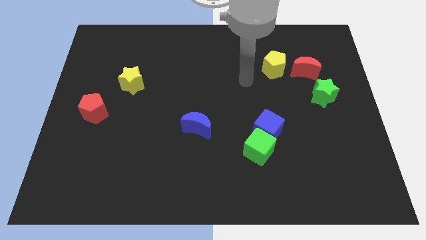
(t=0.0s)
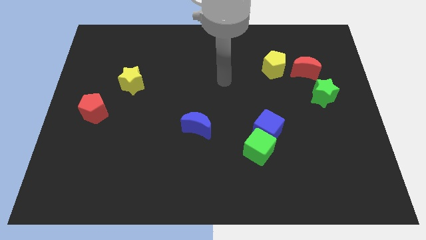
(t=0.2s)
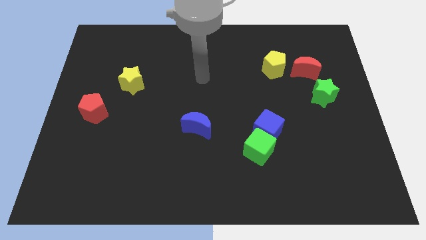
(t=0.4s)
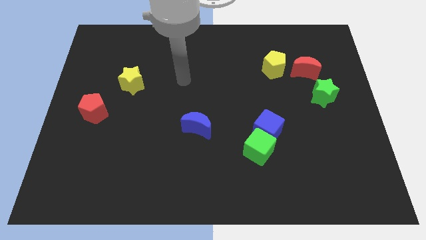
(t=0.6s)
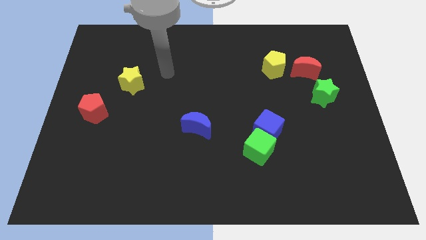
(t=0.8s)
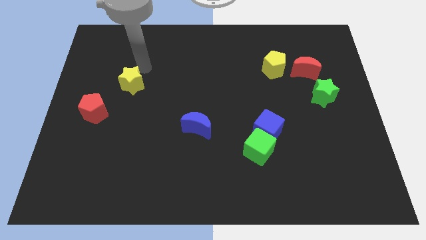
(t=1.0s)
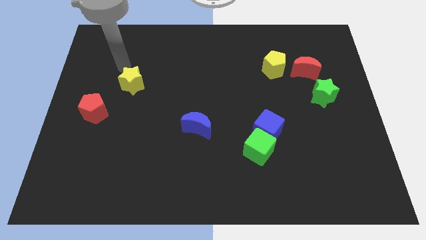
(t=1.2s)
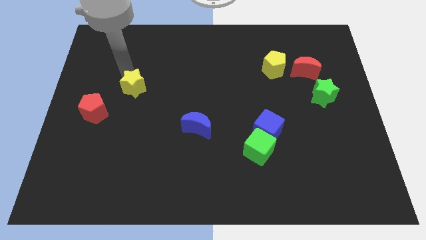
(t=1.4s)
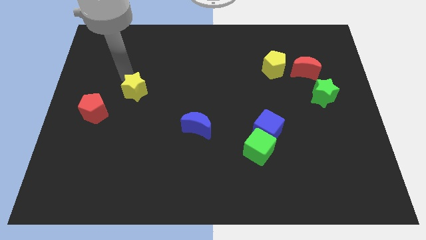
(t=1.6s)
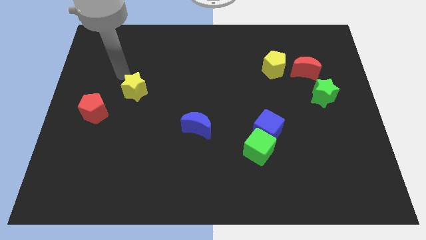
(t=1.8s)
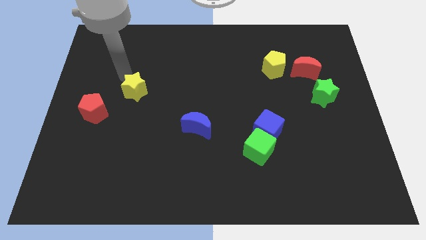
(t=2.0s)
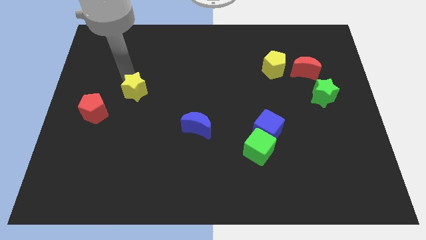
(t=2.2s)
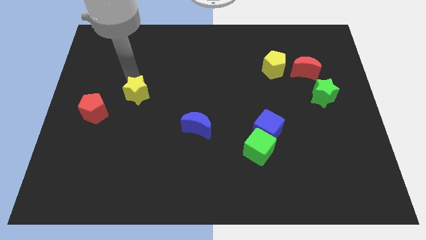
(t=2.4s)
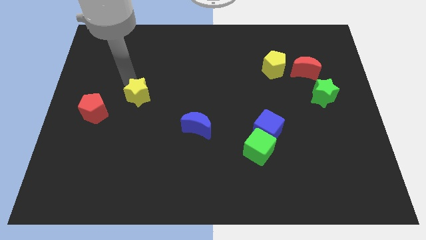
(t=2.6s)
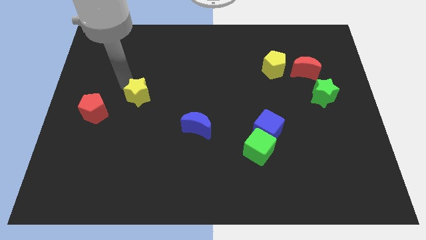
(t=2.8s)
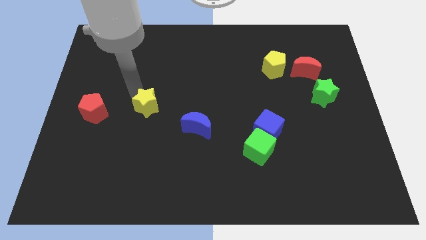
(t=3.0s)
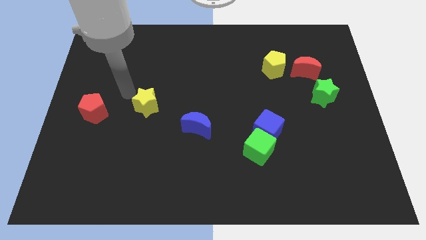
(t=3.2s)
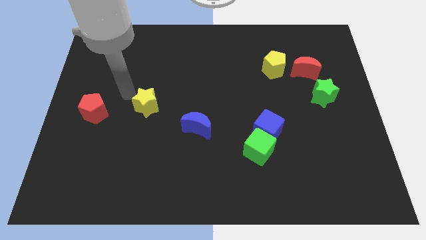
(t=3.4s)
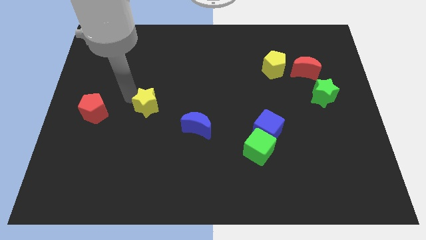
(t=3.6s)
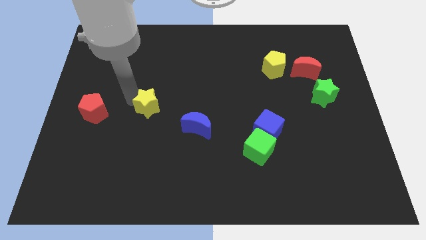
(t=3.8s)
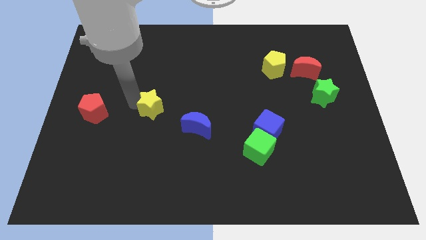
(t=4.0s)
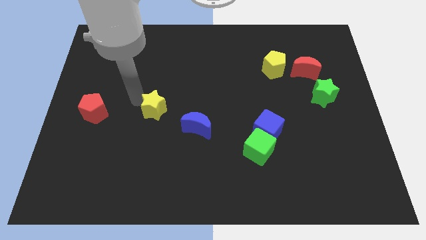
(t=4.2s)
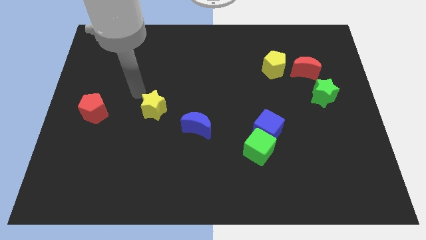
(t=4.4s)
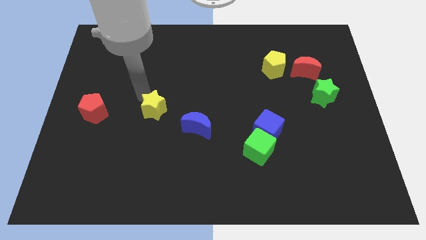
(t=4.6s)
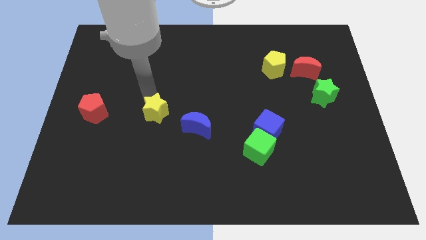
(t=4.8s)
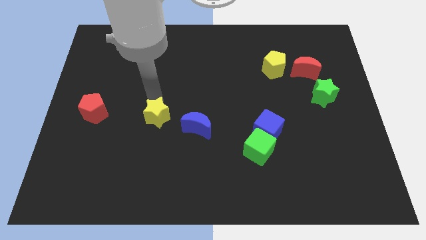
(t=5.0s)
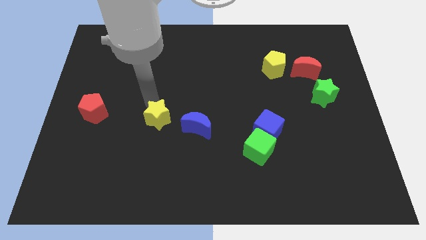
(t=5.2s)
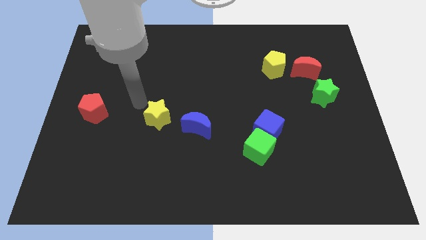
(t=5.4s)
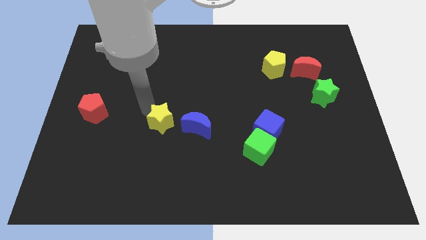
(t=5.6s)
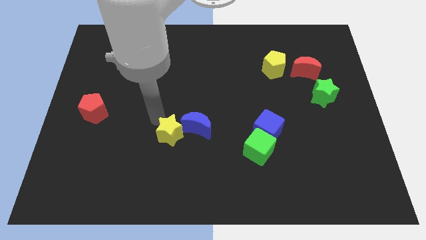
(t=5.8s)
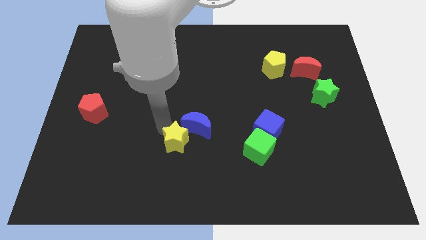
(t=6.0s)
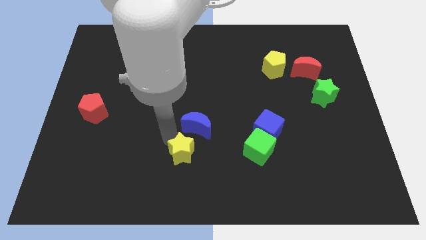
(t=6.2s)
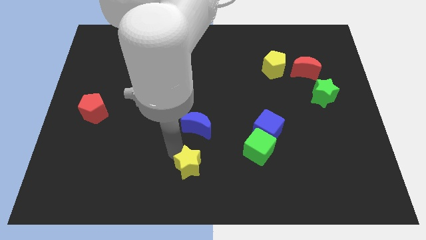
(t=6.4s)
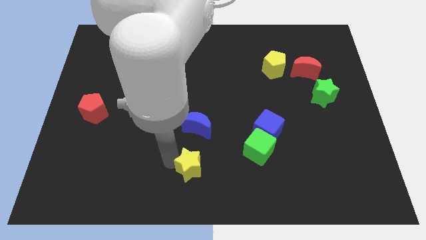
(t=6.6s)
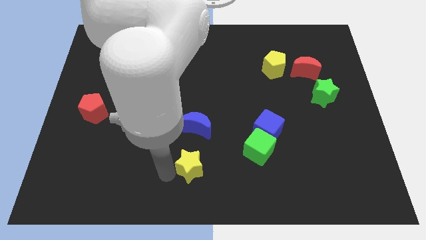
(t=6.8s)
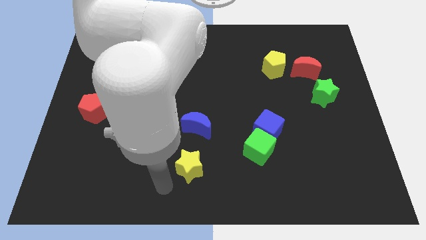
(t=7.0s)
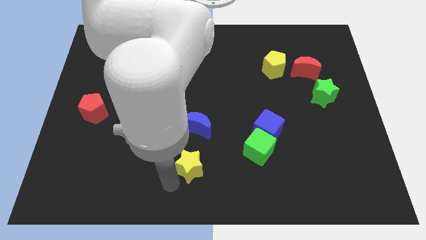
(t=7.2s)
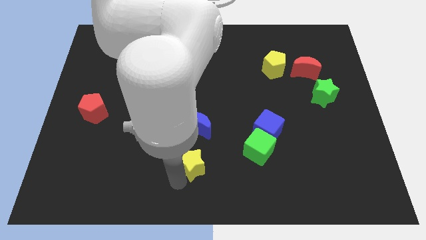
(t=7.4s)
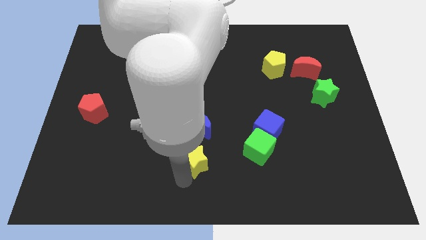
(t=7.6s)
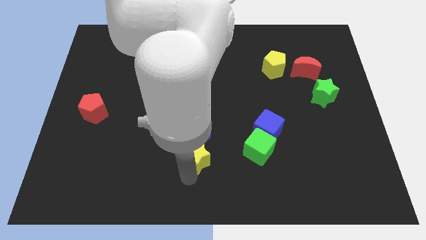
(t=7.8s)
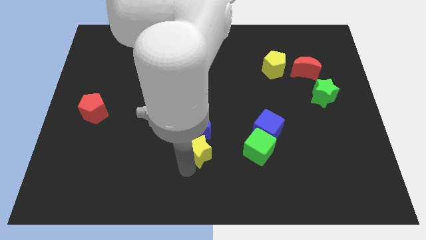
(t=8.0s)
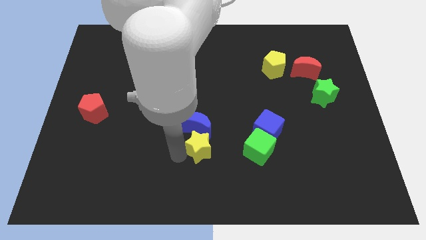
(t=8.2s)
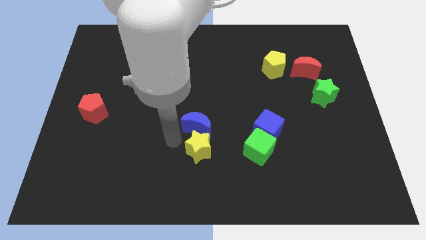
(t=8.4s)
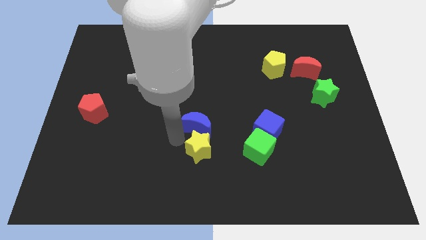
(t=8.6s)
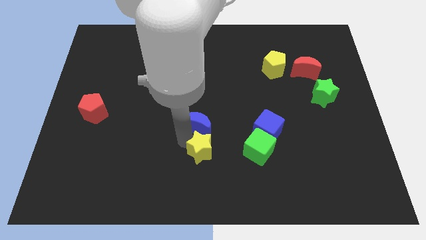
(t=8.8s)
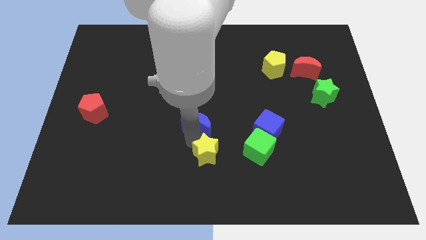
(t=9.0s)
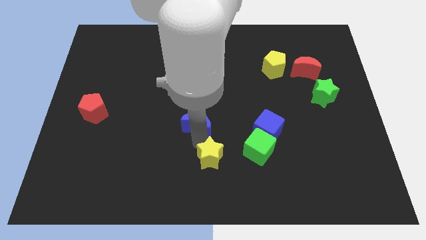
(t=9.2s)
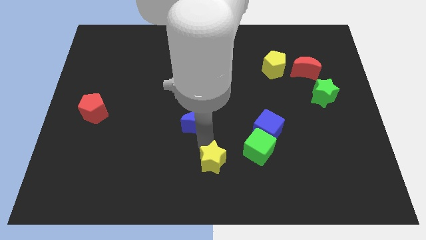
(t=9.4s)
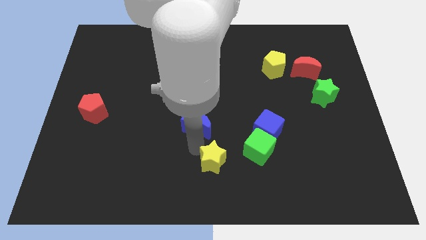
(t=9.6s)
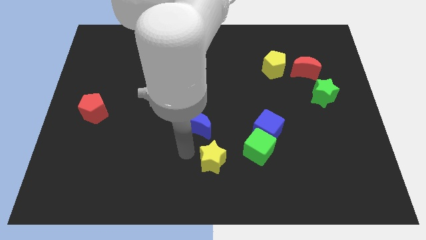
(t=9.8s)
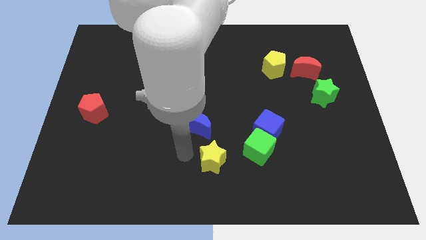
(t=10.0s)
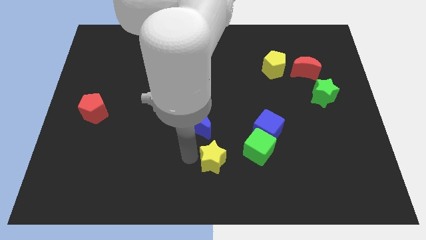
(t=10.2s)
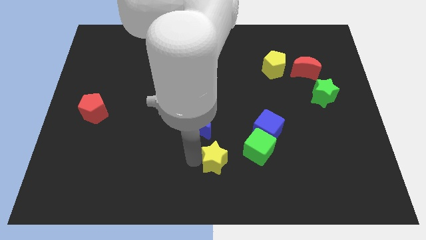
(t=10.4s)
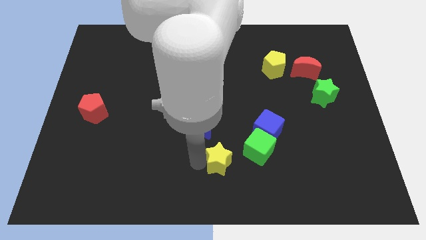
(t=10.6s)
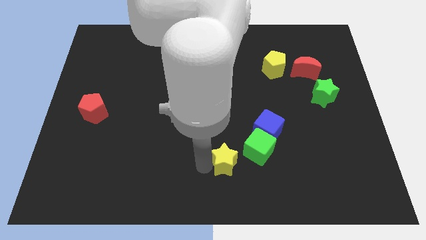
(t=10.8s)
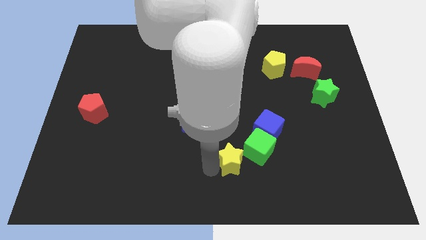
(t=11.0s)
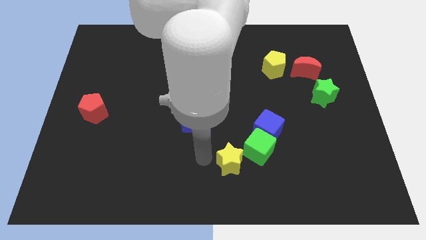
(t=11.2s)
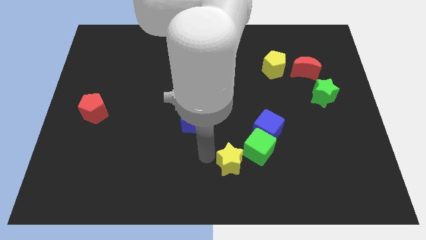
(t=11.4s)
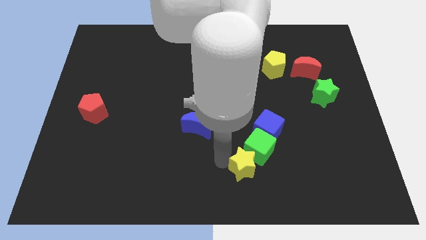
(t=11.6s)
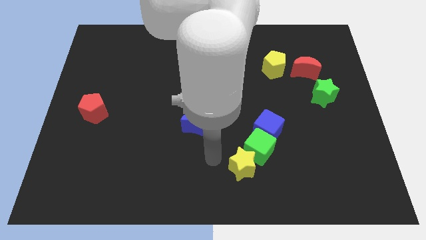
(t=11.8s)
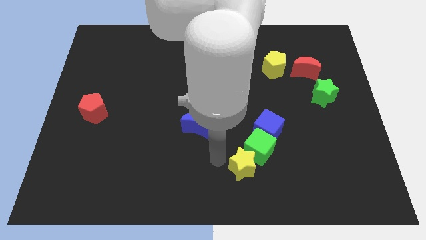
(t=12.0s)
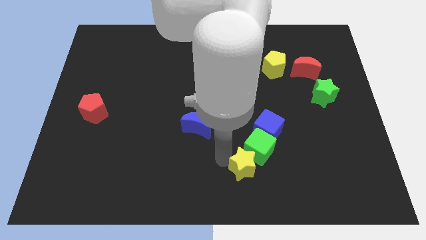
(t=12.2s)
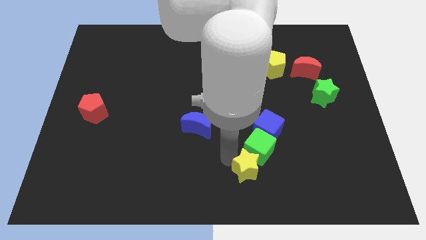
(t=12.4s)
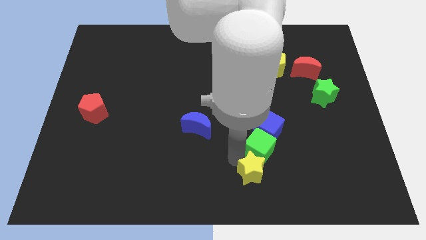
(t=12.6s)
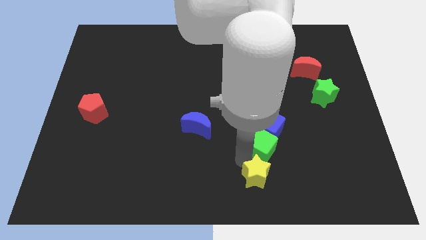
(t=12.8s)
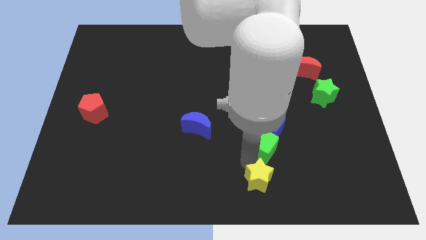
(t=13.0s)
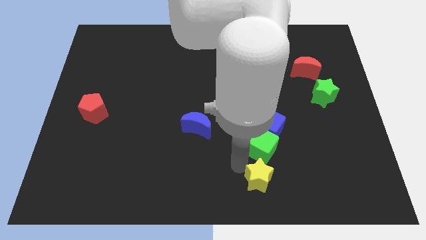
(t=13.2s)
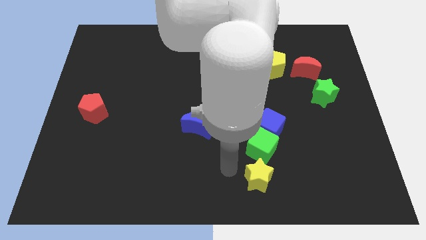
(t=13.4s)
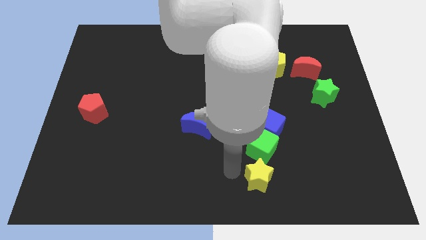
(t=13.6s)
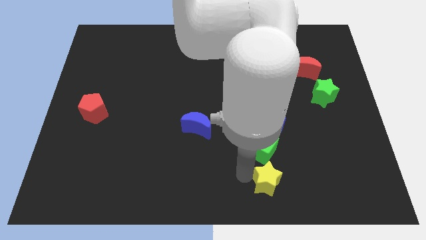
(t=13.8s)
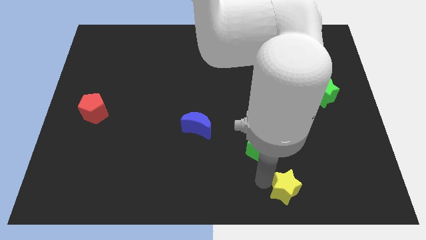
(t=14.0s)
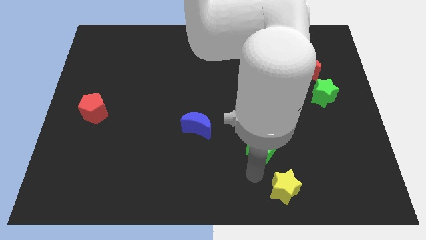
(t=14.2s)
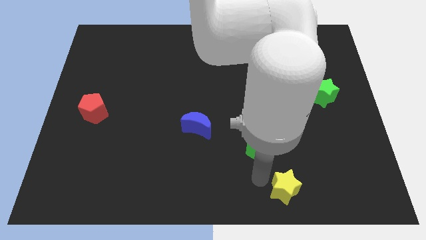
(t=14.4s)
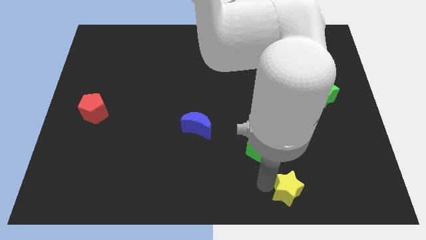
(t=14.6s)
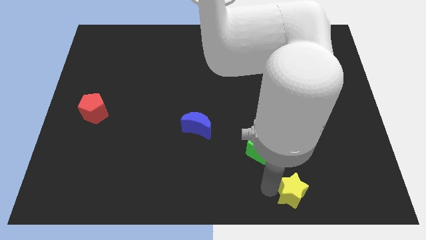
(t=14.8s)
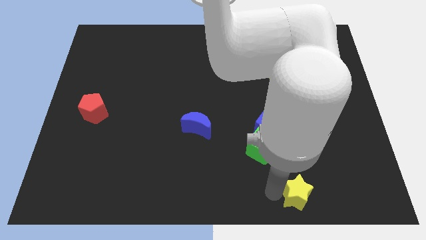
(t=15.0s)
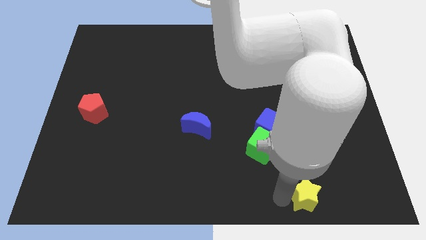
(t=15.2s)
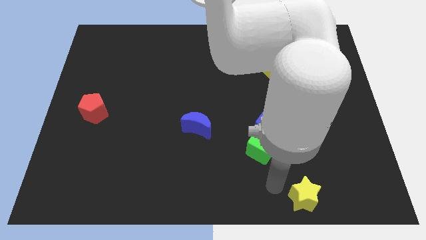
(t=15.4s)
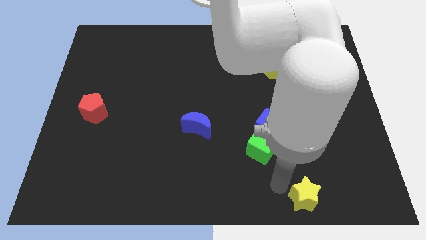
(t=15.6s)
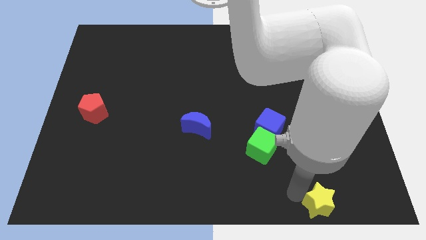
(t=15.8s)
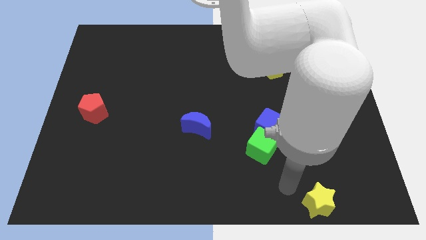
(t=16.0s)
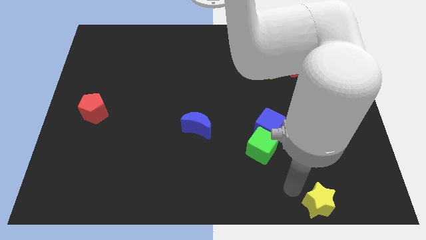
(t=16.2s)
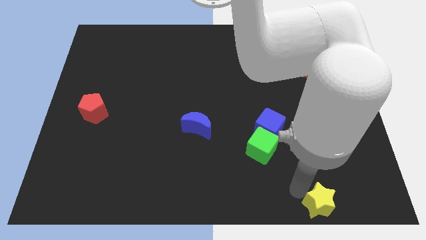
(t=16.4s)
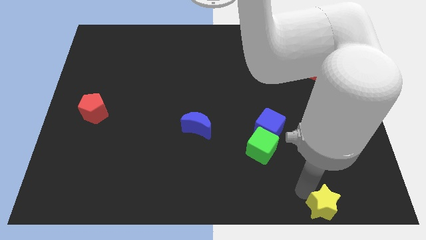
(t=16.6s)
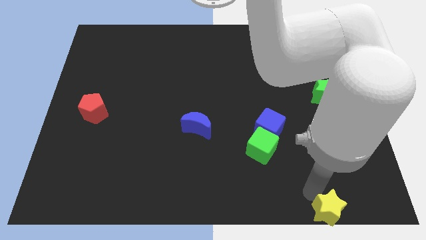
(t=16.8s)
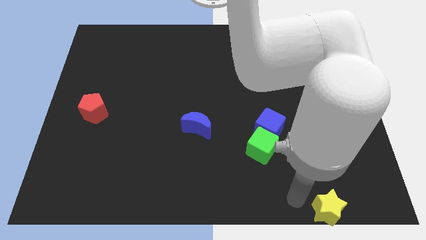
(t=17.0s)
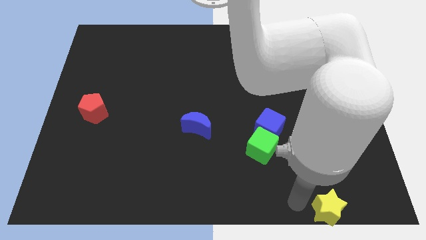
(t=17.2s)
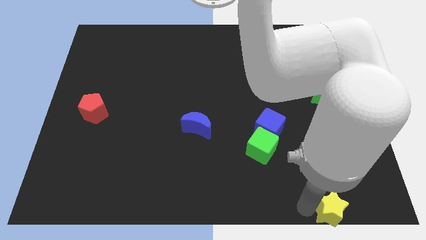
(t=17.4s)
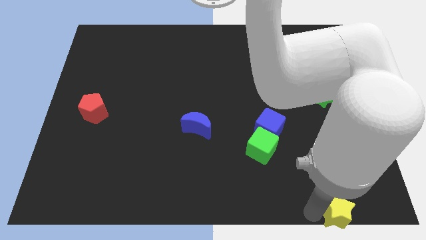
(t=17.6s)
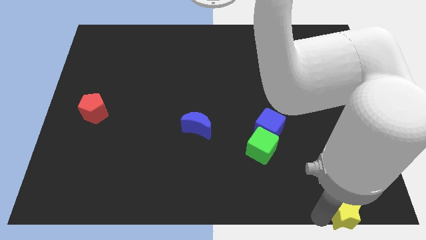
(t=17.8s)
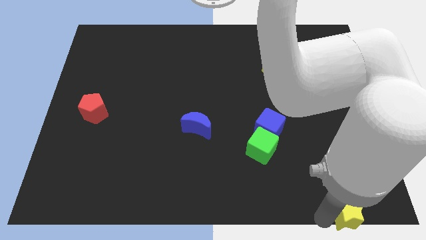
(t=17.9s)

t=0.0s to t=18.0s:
move the yellow star to the lower right corner
